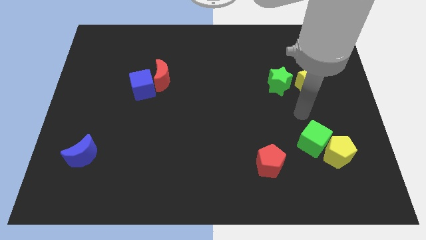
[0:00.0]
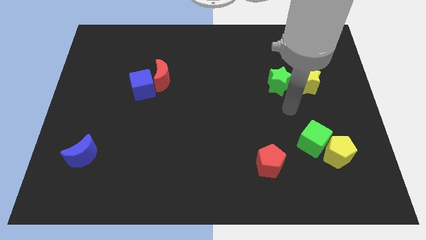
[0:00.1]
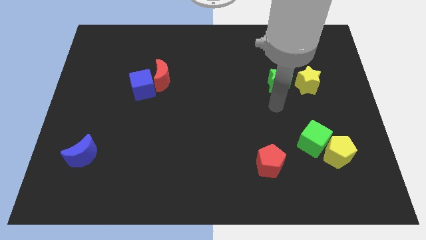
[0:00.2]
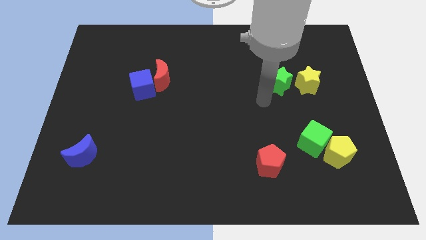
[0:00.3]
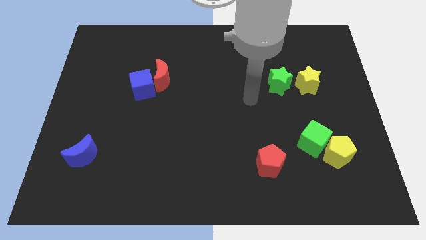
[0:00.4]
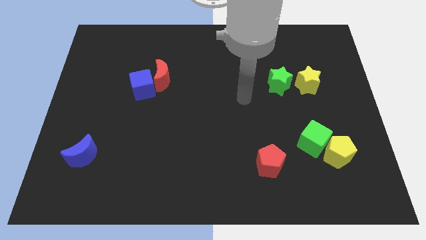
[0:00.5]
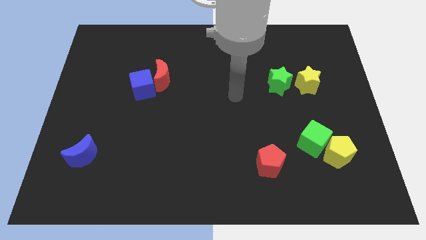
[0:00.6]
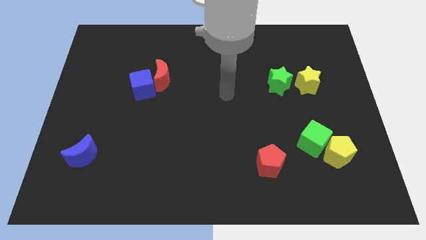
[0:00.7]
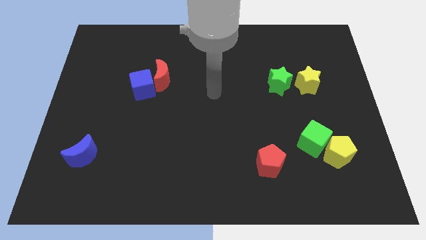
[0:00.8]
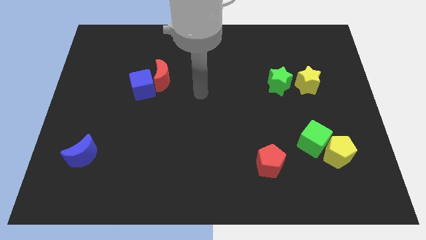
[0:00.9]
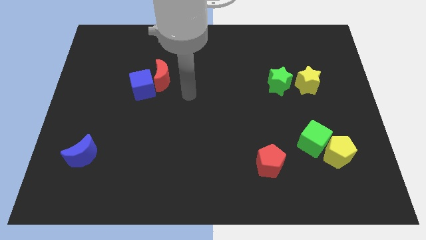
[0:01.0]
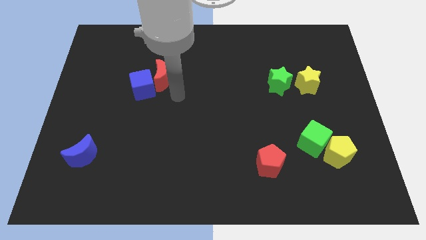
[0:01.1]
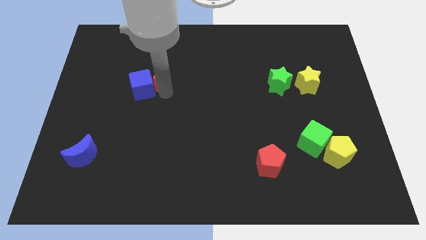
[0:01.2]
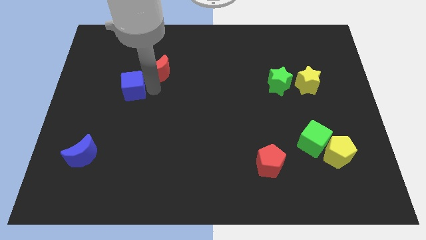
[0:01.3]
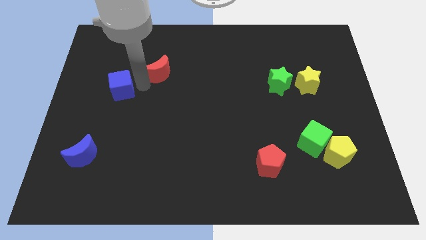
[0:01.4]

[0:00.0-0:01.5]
separate the red moon from the blue cube

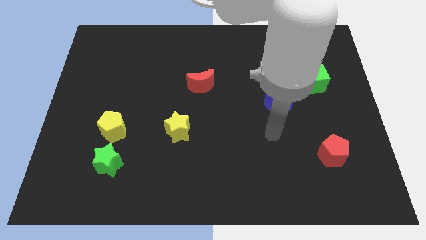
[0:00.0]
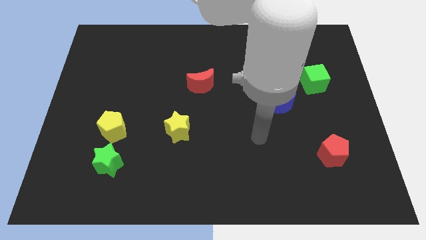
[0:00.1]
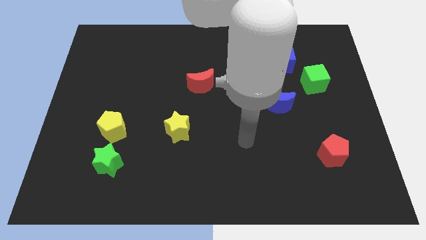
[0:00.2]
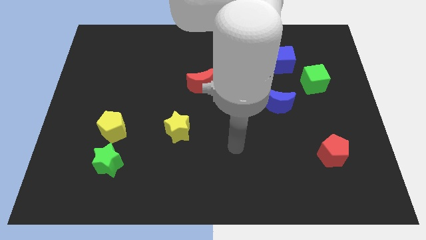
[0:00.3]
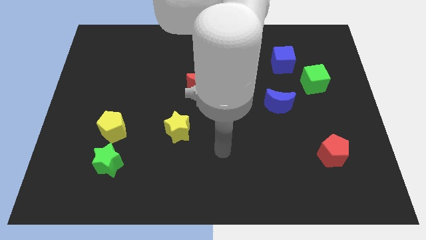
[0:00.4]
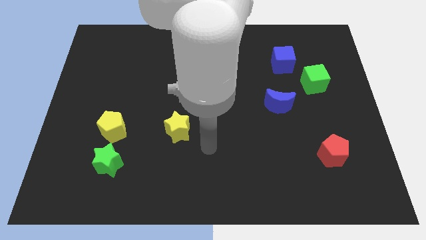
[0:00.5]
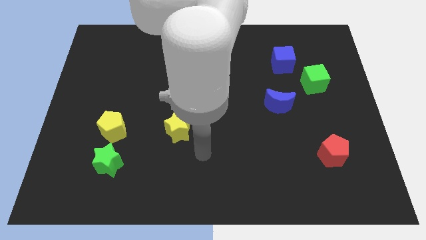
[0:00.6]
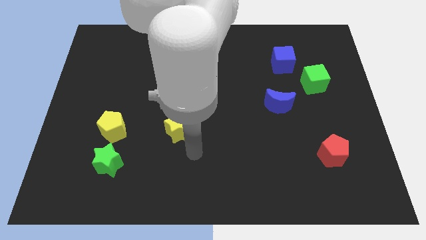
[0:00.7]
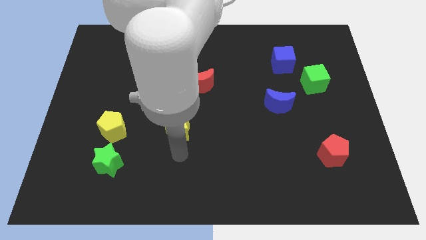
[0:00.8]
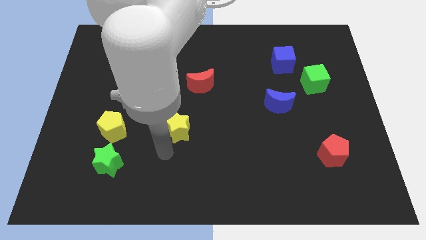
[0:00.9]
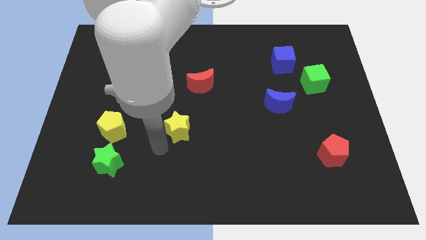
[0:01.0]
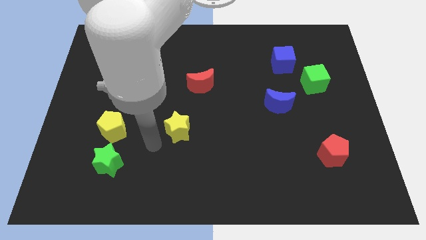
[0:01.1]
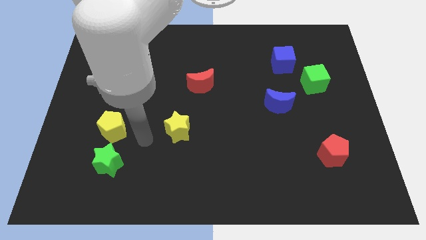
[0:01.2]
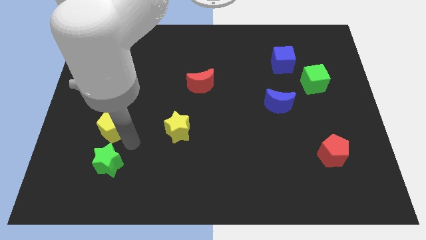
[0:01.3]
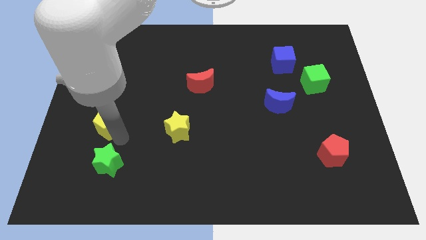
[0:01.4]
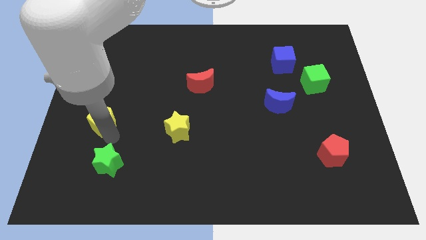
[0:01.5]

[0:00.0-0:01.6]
pull the green star apart from the yellow pentagon

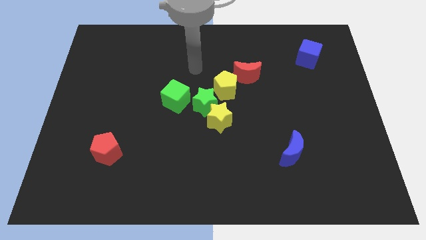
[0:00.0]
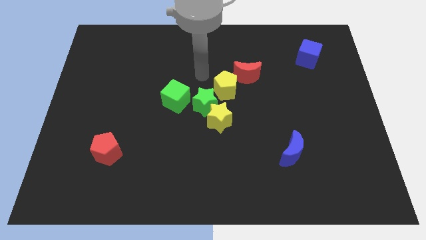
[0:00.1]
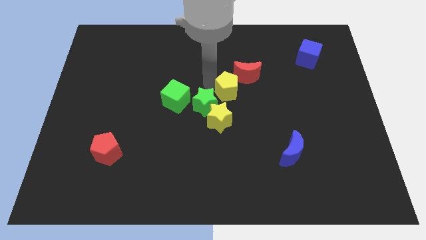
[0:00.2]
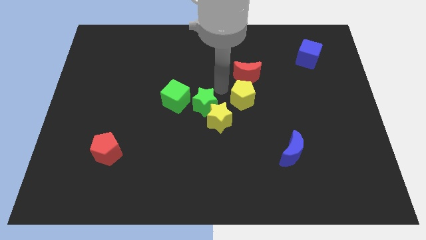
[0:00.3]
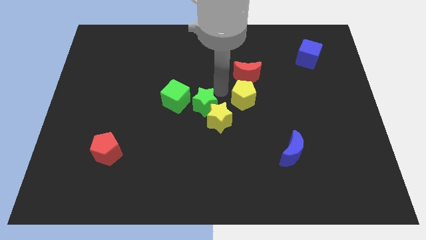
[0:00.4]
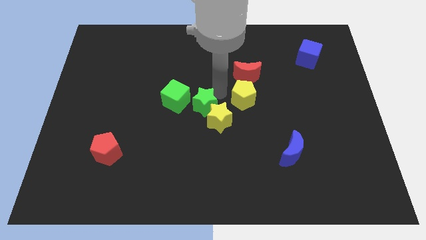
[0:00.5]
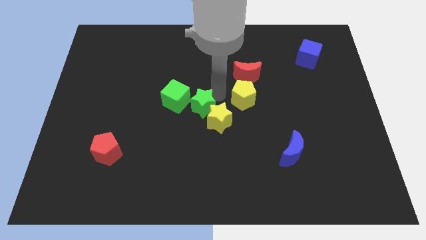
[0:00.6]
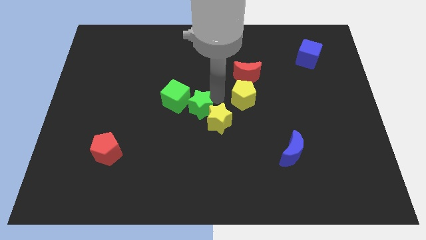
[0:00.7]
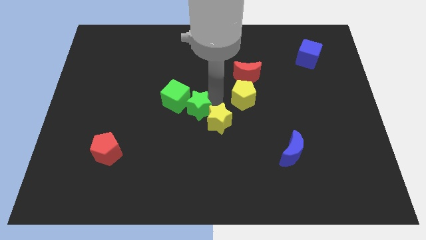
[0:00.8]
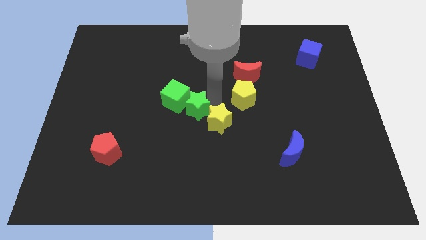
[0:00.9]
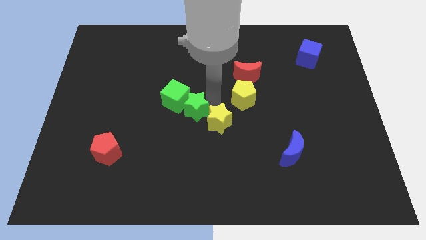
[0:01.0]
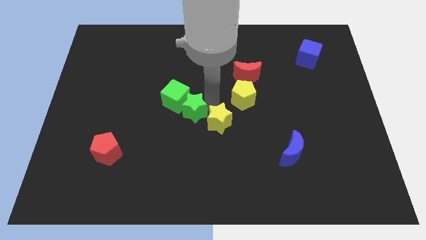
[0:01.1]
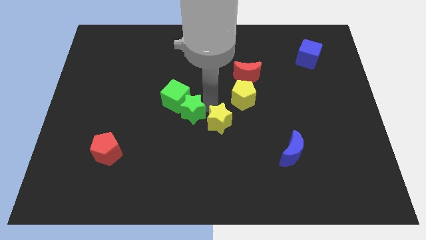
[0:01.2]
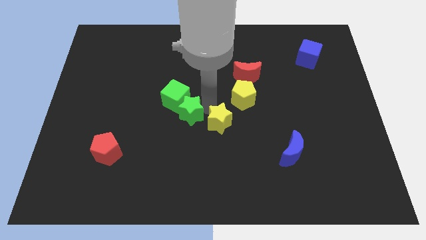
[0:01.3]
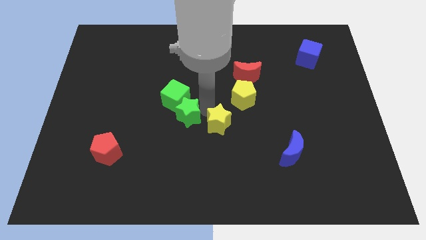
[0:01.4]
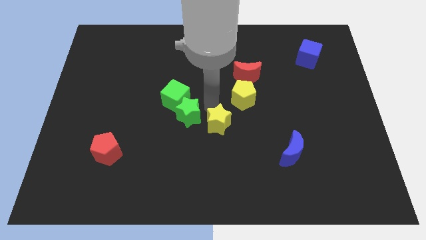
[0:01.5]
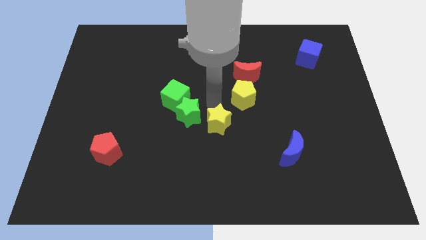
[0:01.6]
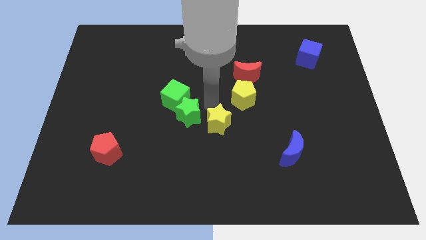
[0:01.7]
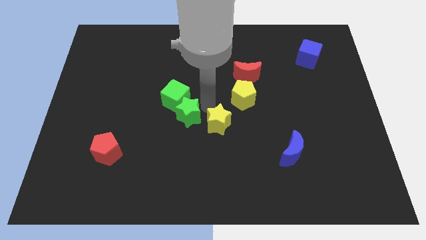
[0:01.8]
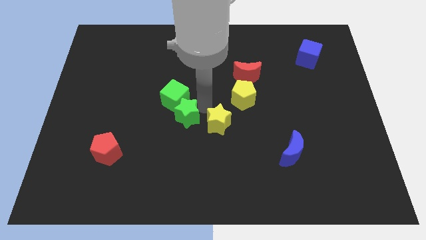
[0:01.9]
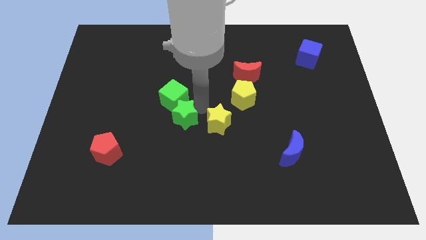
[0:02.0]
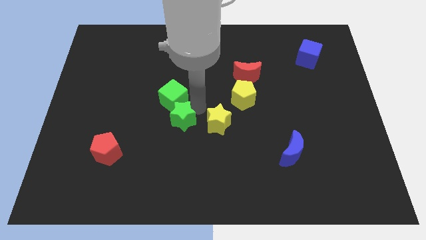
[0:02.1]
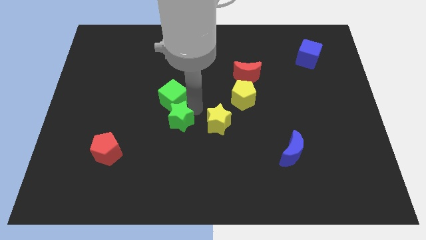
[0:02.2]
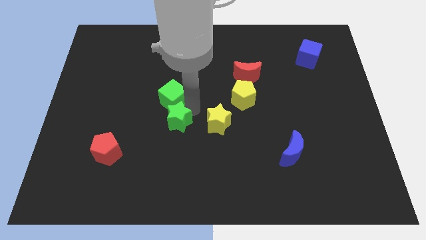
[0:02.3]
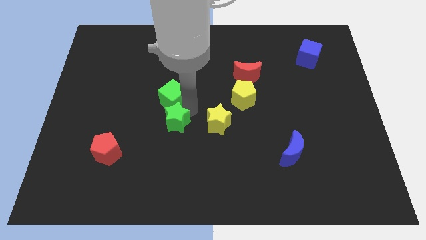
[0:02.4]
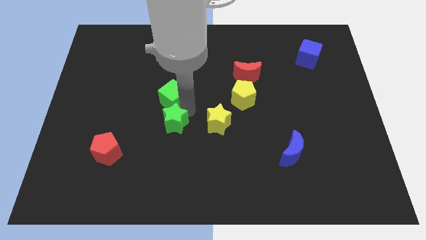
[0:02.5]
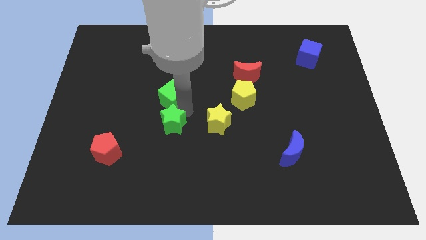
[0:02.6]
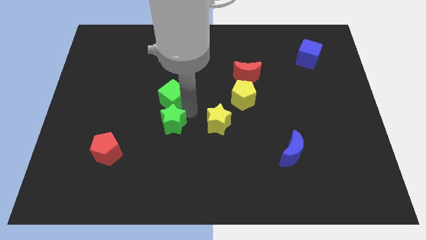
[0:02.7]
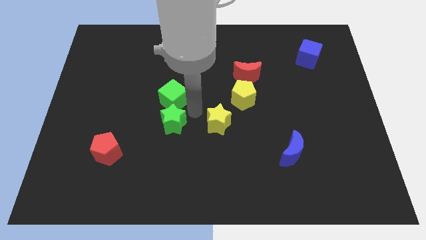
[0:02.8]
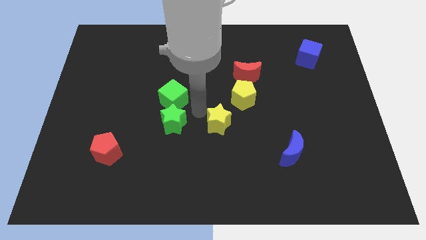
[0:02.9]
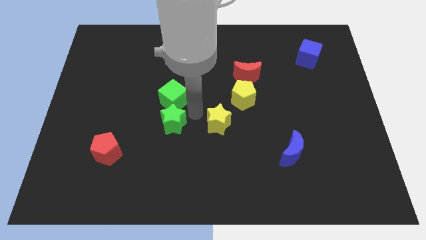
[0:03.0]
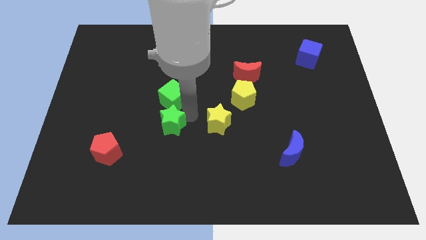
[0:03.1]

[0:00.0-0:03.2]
move the green star away from the yellow star, yellow pentagon, and green cube

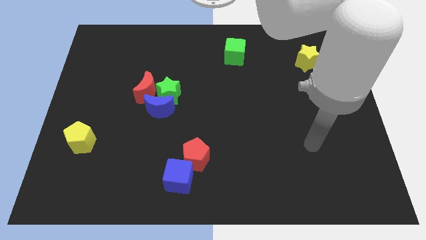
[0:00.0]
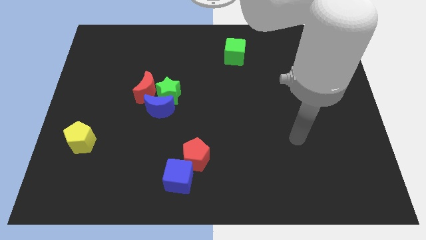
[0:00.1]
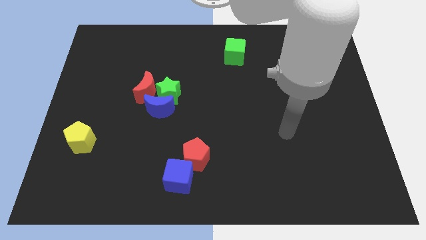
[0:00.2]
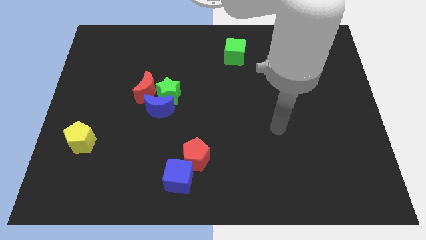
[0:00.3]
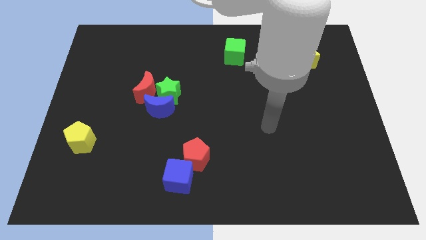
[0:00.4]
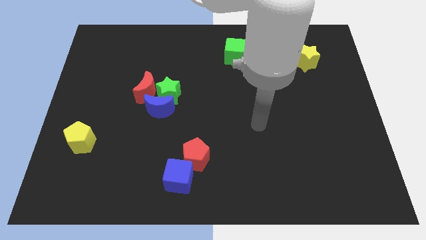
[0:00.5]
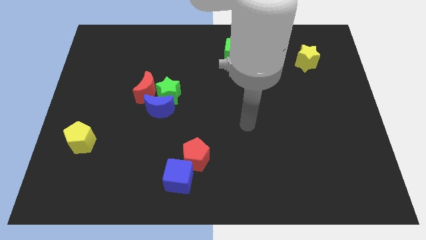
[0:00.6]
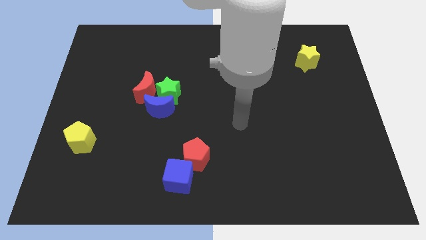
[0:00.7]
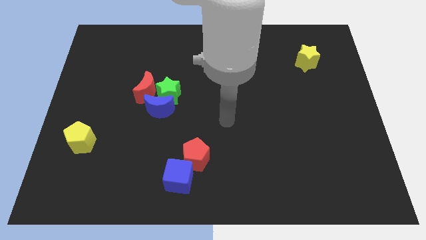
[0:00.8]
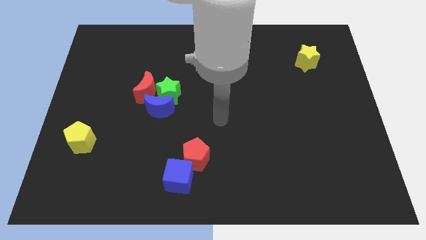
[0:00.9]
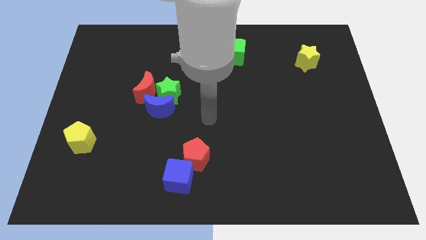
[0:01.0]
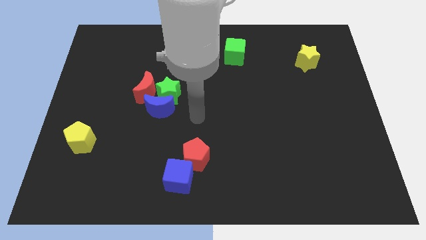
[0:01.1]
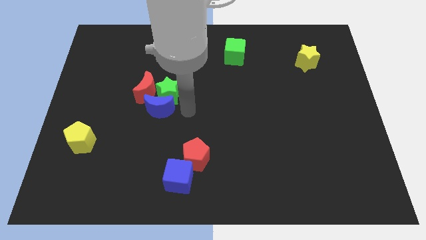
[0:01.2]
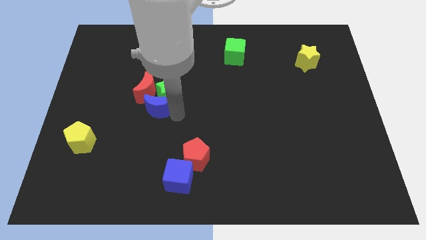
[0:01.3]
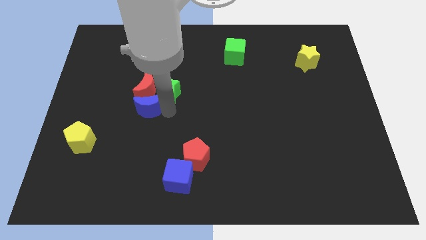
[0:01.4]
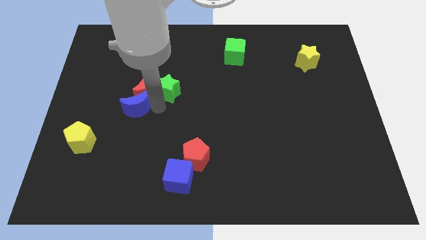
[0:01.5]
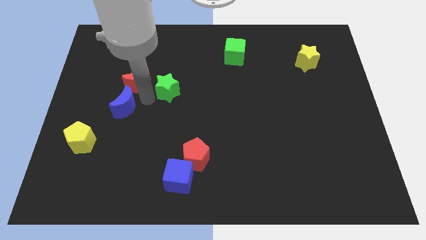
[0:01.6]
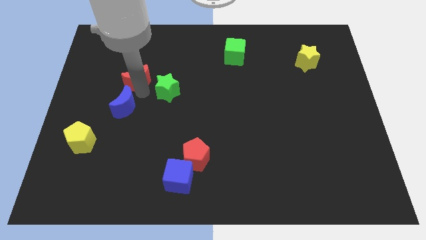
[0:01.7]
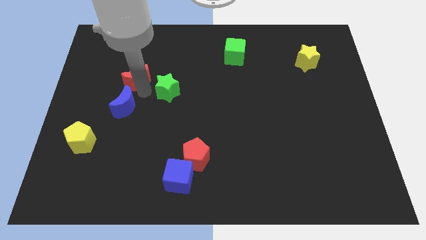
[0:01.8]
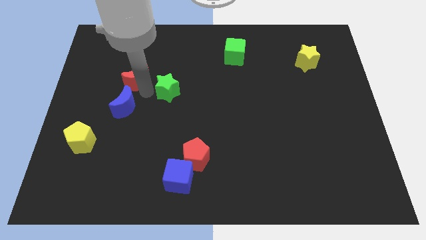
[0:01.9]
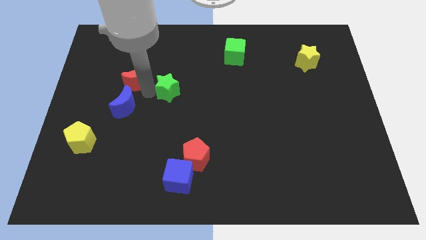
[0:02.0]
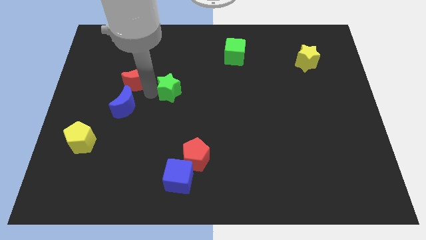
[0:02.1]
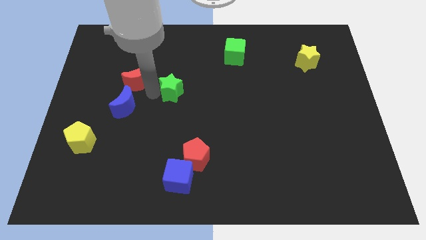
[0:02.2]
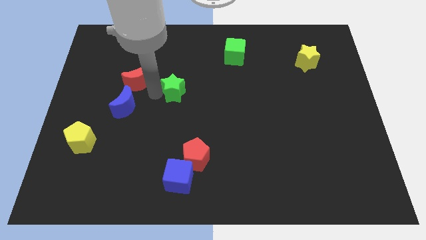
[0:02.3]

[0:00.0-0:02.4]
move the green star away from the blue moon and red moon

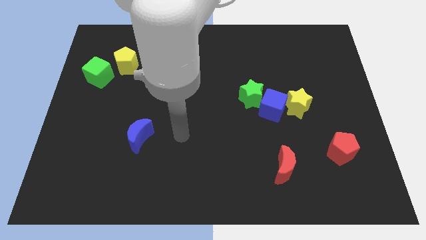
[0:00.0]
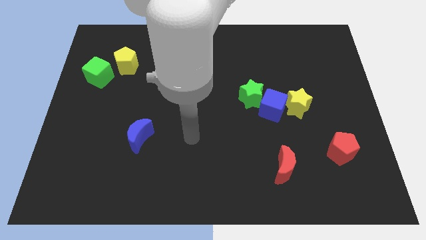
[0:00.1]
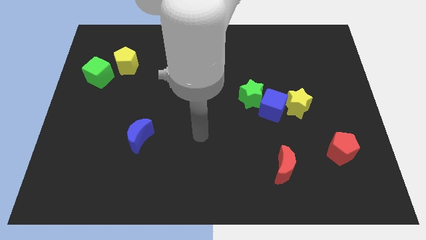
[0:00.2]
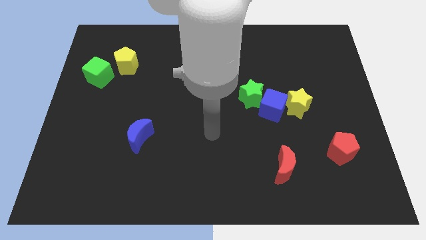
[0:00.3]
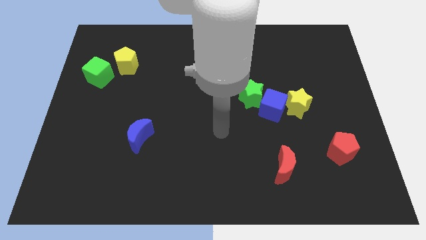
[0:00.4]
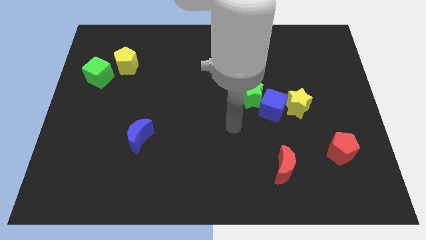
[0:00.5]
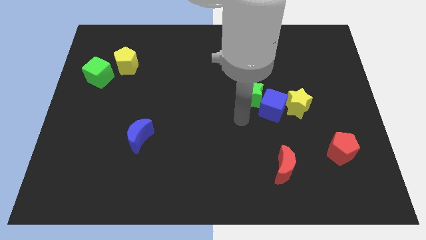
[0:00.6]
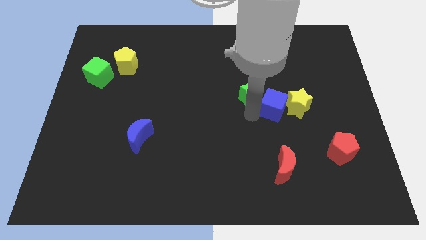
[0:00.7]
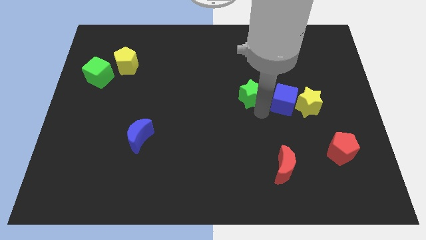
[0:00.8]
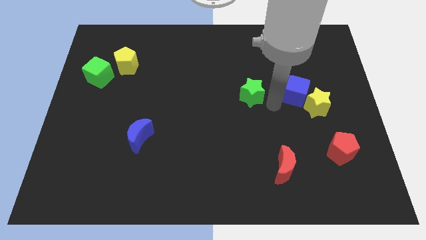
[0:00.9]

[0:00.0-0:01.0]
pull the green star apart from the blue cube
